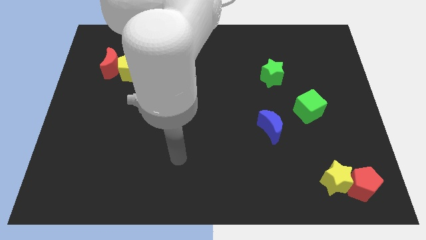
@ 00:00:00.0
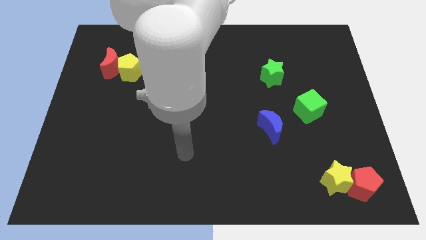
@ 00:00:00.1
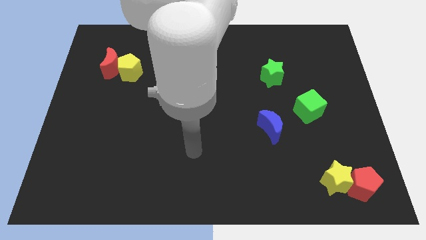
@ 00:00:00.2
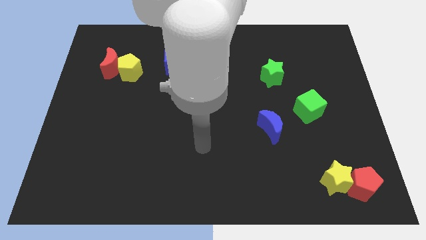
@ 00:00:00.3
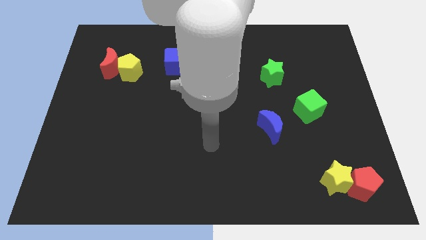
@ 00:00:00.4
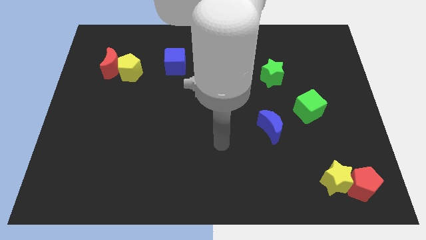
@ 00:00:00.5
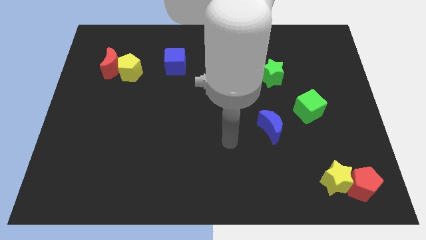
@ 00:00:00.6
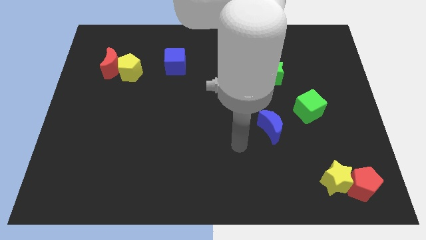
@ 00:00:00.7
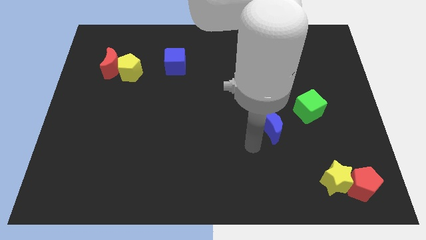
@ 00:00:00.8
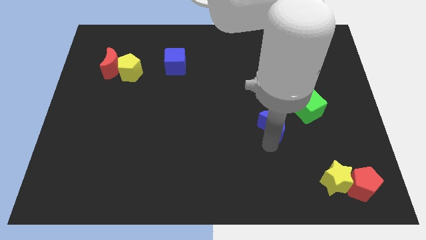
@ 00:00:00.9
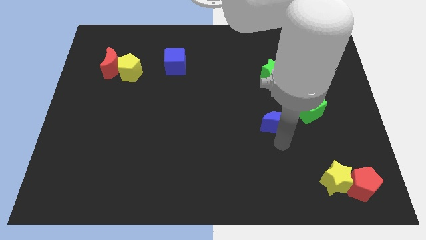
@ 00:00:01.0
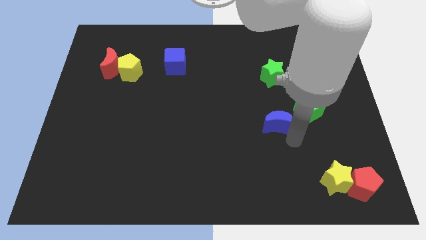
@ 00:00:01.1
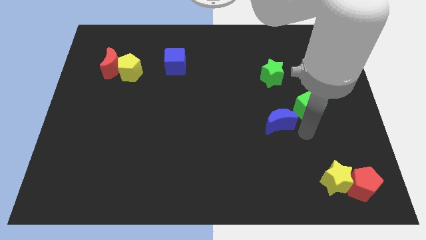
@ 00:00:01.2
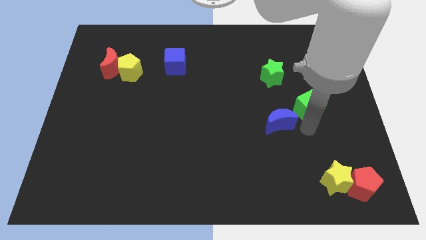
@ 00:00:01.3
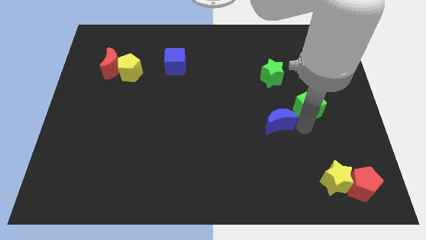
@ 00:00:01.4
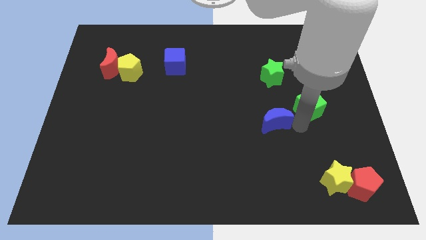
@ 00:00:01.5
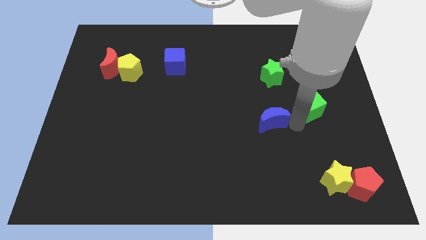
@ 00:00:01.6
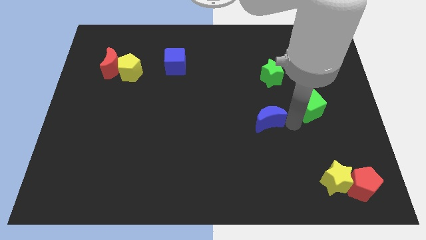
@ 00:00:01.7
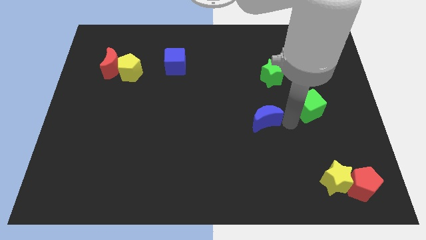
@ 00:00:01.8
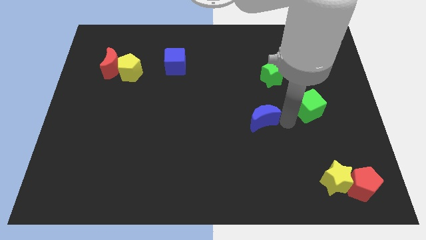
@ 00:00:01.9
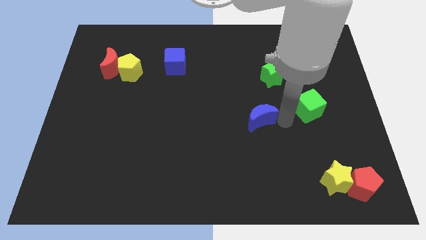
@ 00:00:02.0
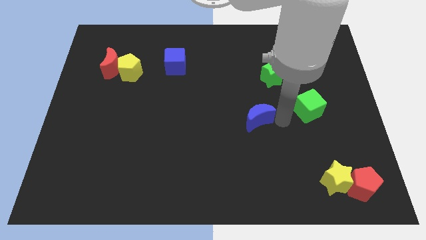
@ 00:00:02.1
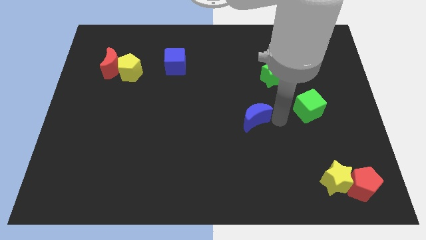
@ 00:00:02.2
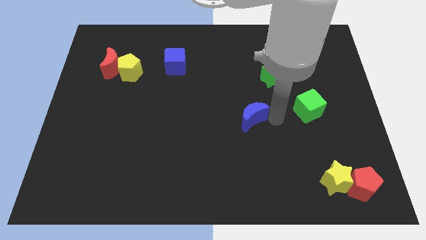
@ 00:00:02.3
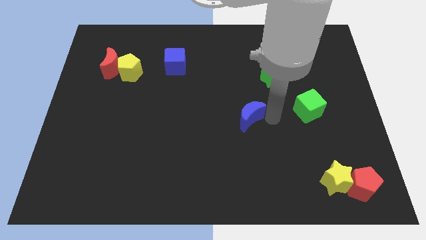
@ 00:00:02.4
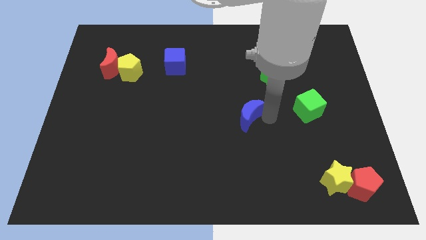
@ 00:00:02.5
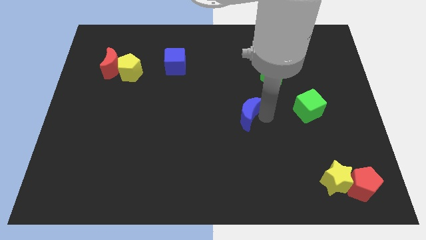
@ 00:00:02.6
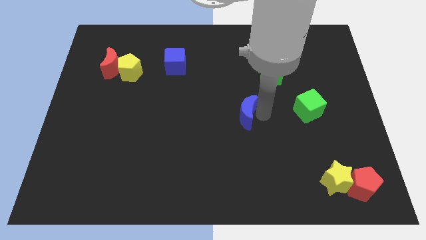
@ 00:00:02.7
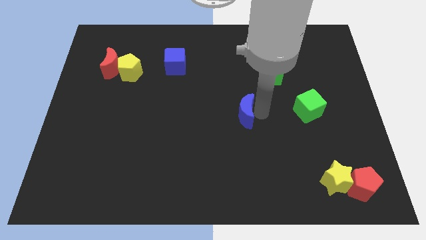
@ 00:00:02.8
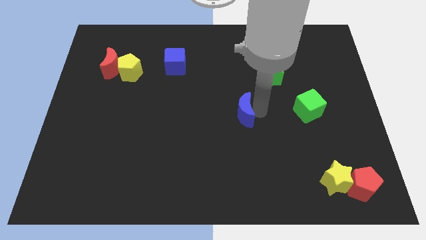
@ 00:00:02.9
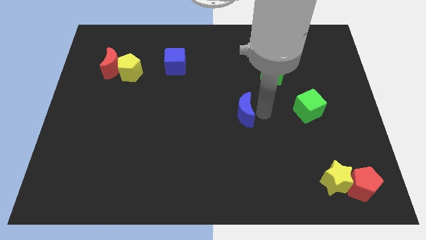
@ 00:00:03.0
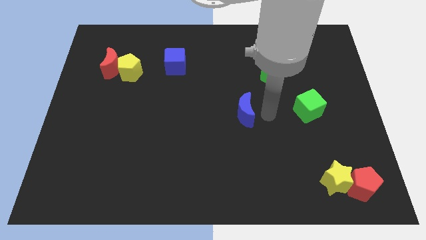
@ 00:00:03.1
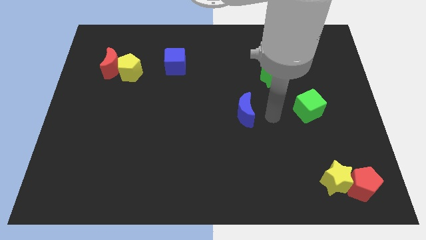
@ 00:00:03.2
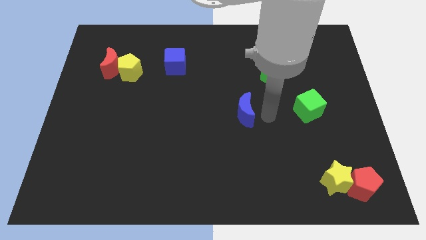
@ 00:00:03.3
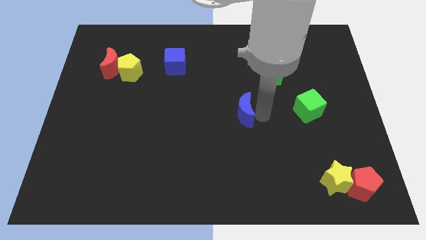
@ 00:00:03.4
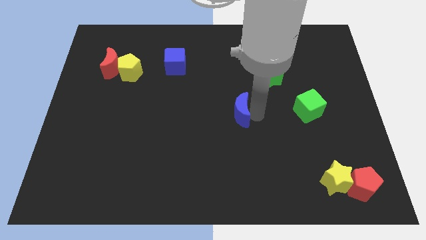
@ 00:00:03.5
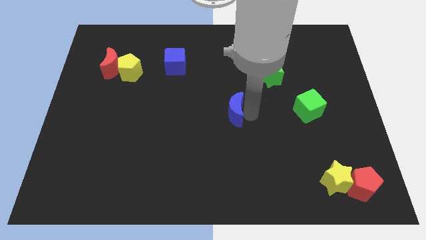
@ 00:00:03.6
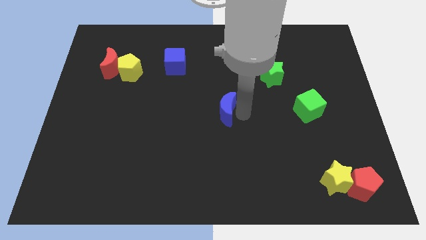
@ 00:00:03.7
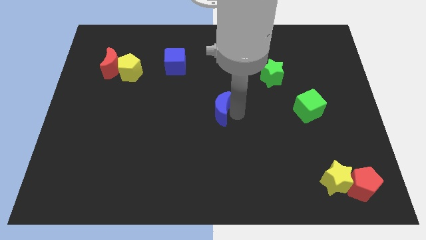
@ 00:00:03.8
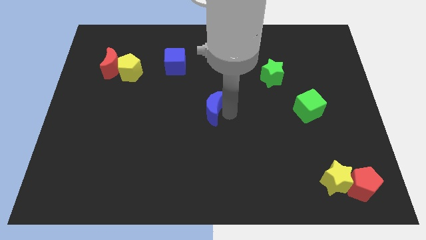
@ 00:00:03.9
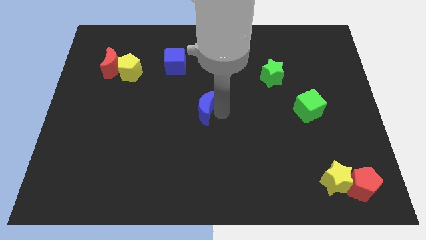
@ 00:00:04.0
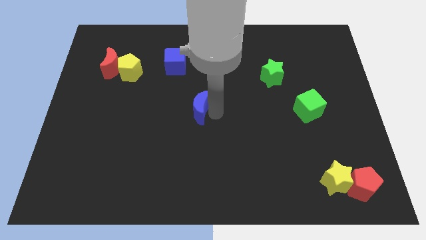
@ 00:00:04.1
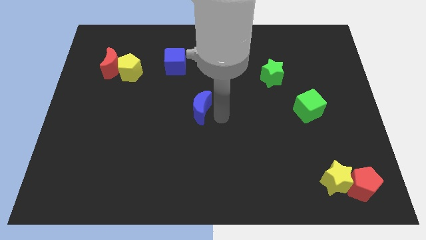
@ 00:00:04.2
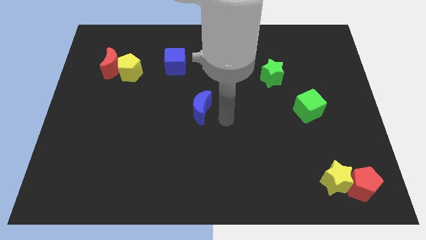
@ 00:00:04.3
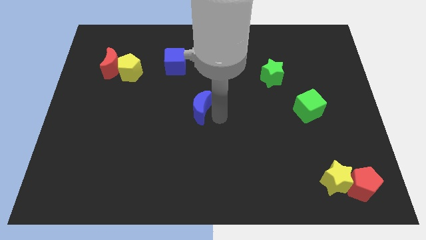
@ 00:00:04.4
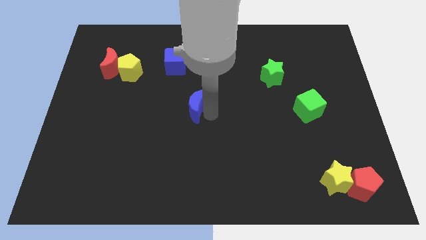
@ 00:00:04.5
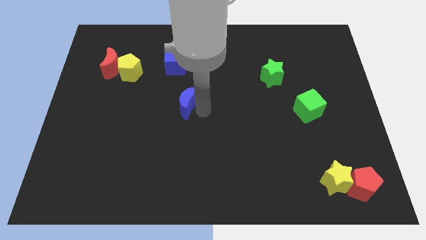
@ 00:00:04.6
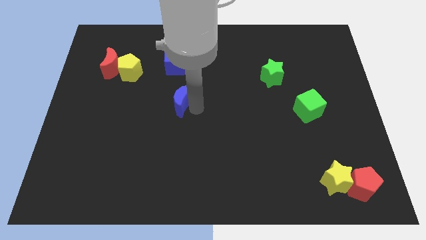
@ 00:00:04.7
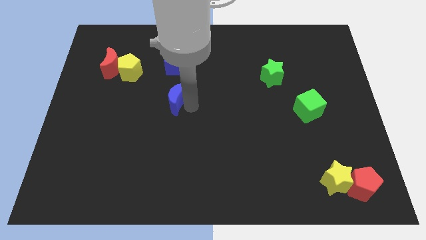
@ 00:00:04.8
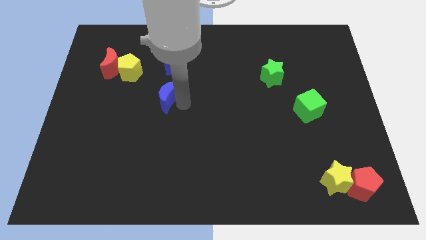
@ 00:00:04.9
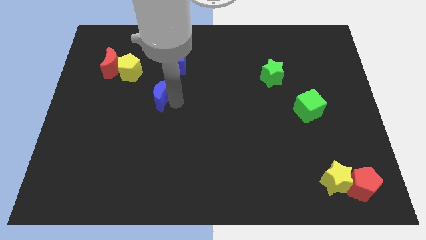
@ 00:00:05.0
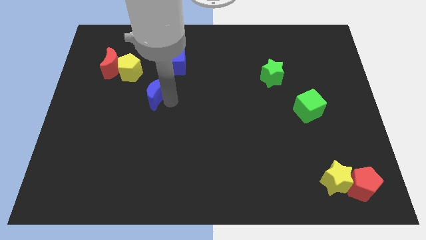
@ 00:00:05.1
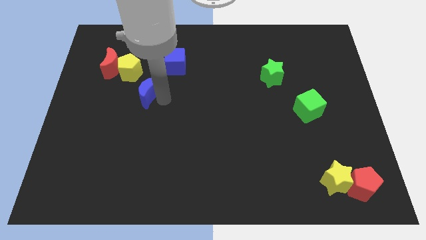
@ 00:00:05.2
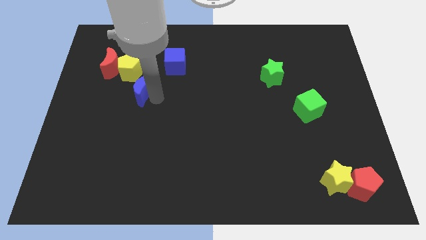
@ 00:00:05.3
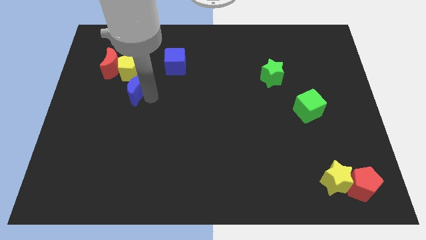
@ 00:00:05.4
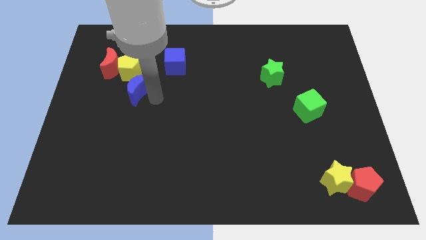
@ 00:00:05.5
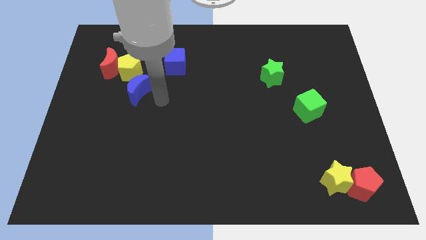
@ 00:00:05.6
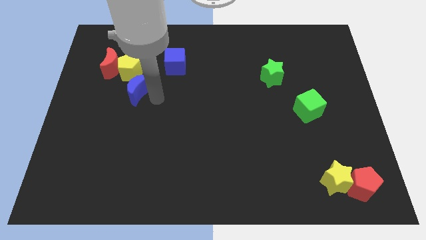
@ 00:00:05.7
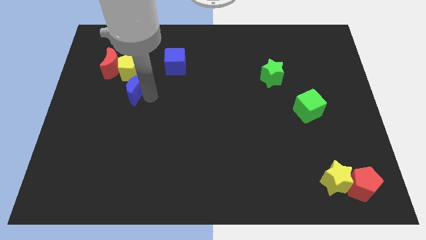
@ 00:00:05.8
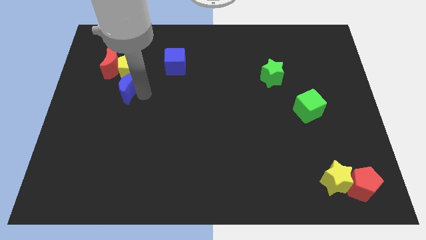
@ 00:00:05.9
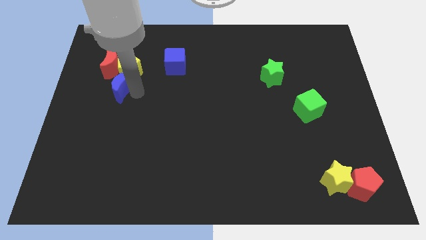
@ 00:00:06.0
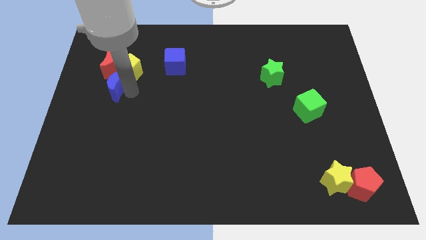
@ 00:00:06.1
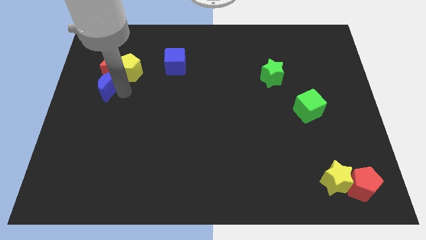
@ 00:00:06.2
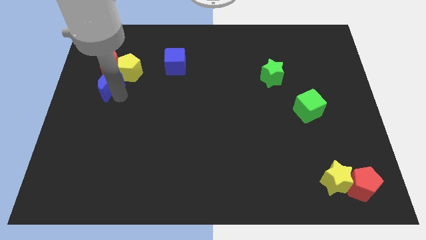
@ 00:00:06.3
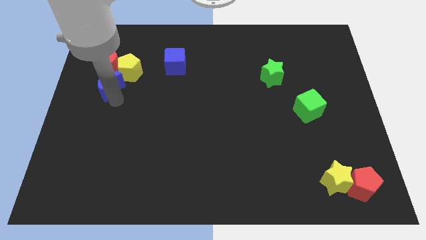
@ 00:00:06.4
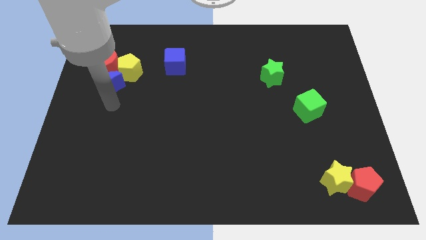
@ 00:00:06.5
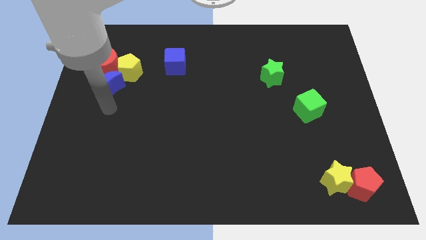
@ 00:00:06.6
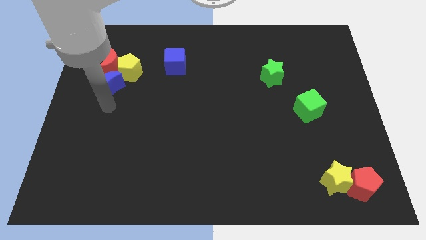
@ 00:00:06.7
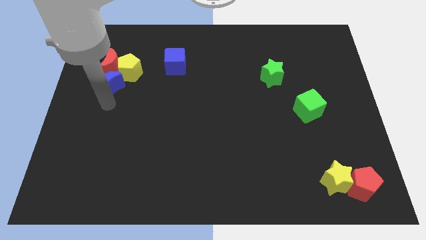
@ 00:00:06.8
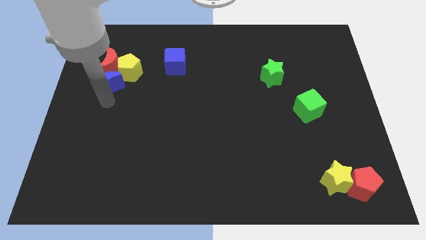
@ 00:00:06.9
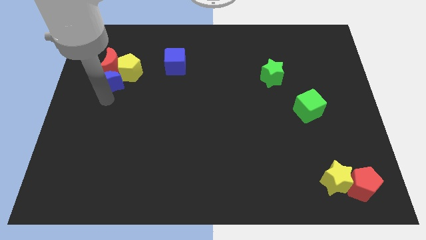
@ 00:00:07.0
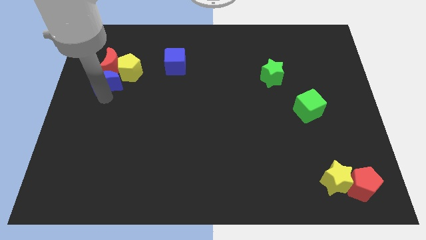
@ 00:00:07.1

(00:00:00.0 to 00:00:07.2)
put the blue moon close to the red moon
